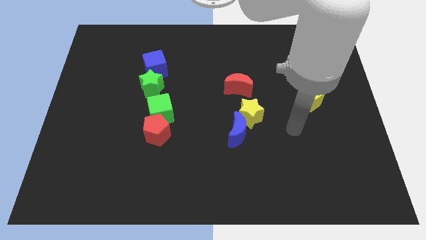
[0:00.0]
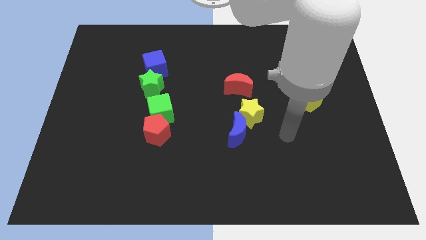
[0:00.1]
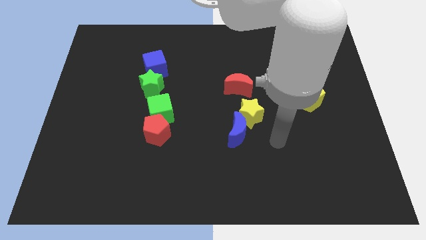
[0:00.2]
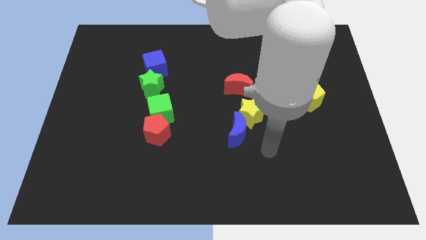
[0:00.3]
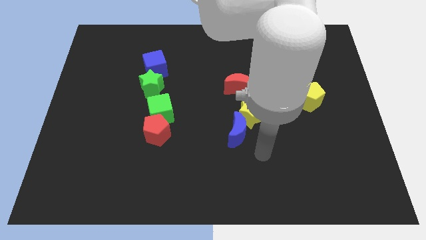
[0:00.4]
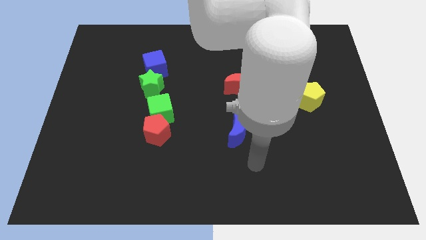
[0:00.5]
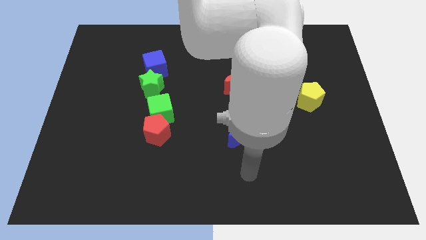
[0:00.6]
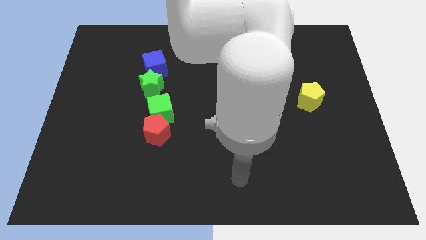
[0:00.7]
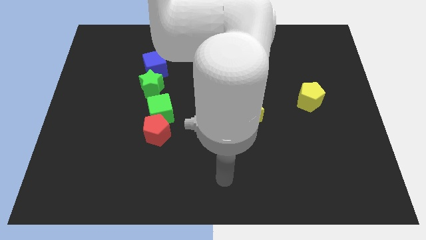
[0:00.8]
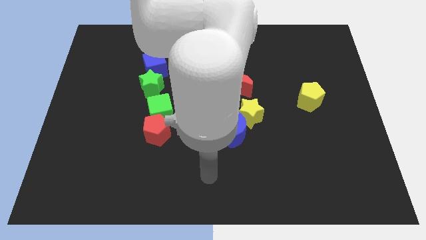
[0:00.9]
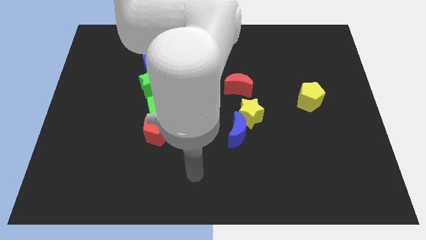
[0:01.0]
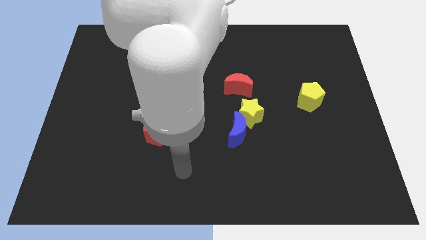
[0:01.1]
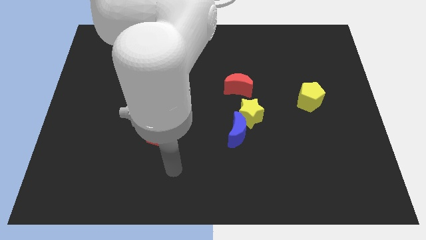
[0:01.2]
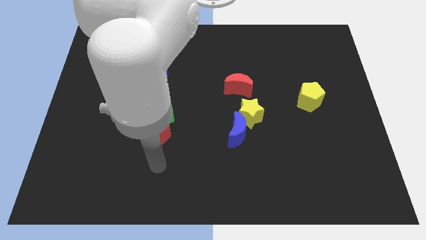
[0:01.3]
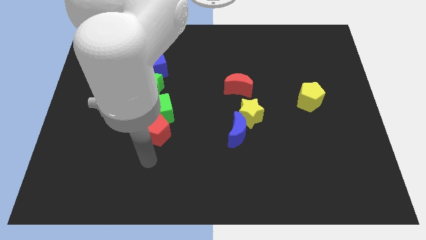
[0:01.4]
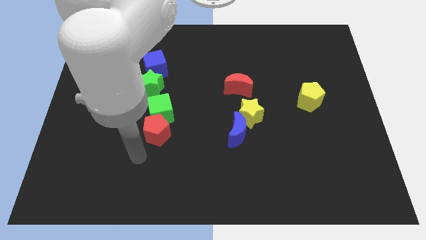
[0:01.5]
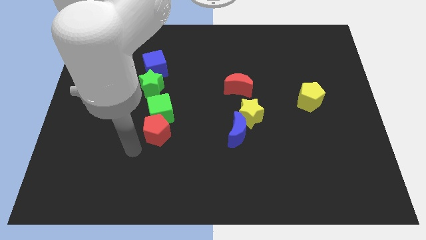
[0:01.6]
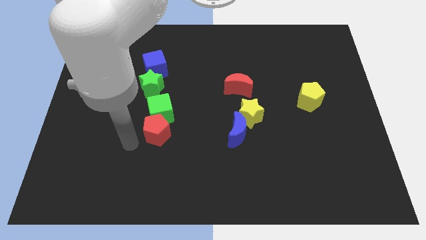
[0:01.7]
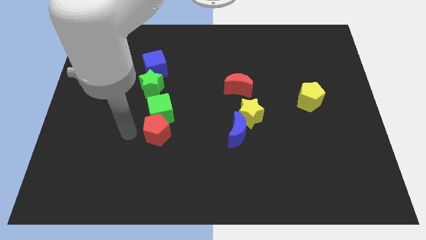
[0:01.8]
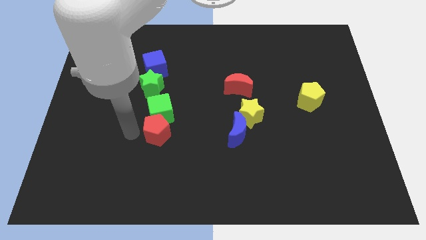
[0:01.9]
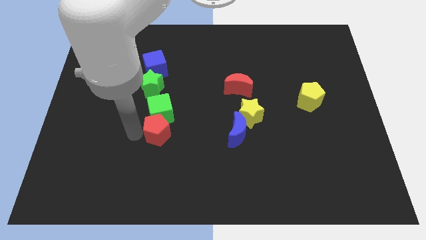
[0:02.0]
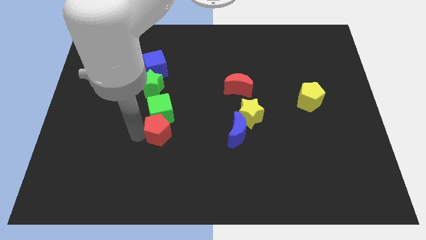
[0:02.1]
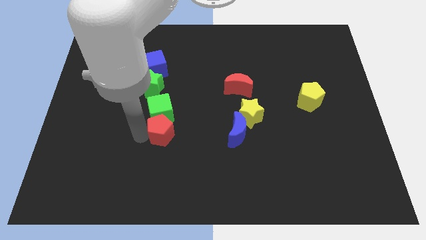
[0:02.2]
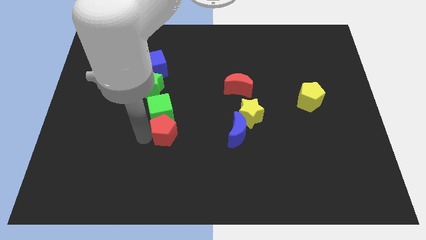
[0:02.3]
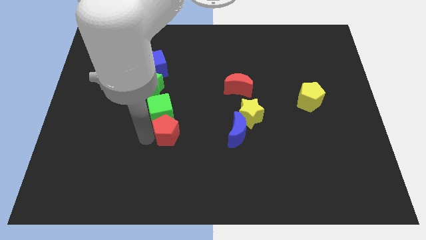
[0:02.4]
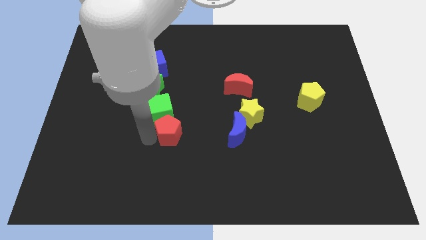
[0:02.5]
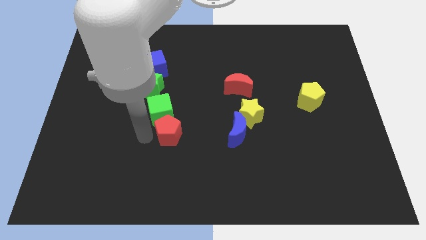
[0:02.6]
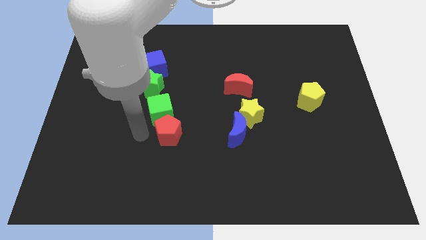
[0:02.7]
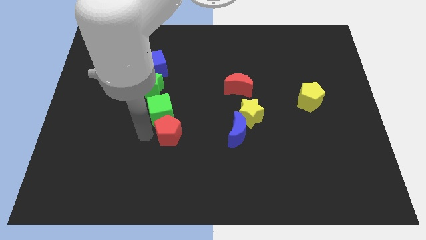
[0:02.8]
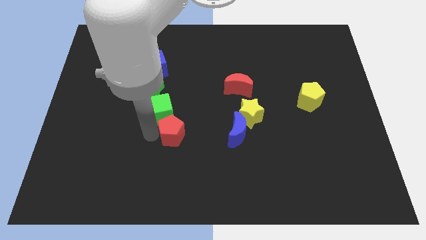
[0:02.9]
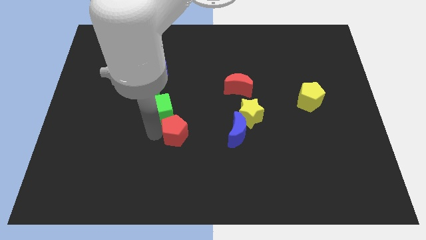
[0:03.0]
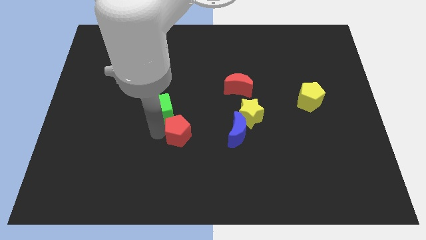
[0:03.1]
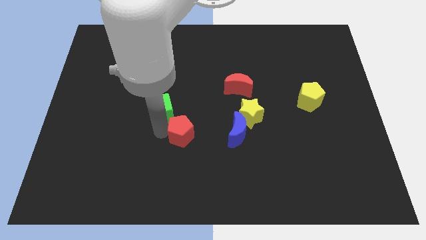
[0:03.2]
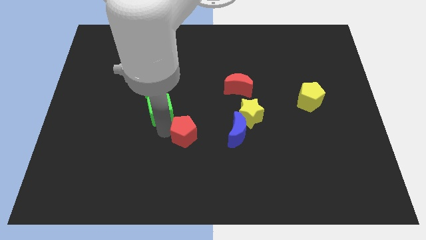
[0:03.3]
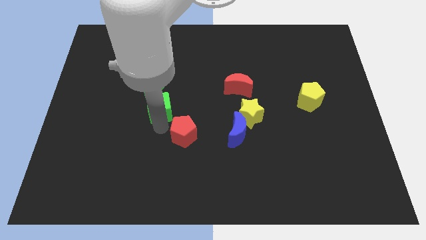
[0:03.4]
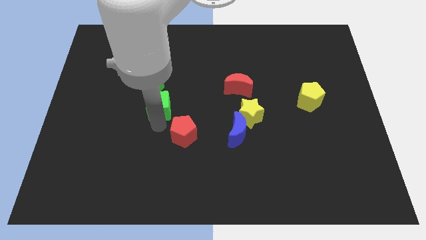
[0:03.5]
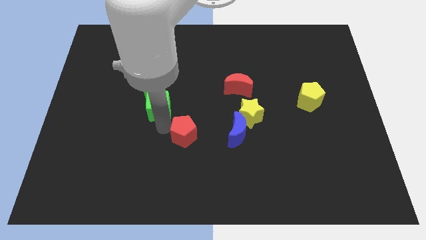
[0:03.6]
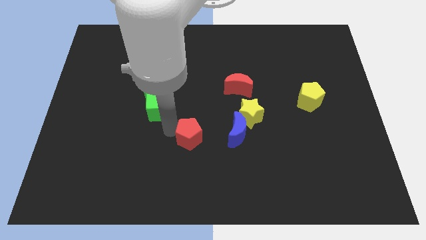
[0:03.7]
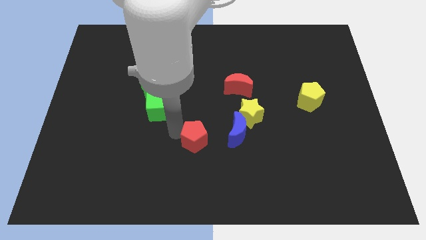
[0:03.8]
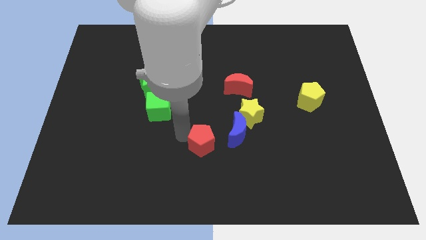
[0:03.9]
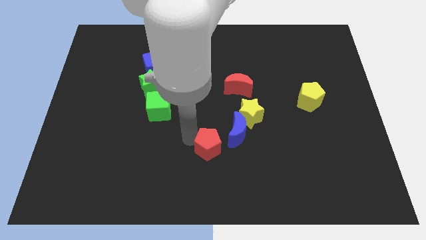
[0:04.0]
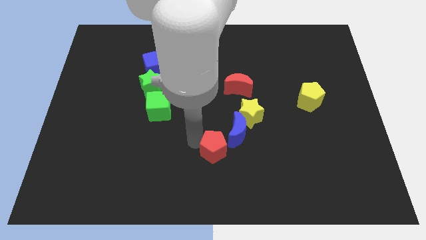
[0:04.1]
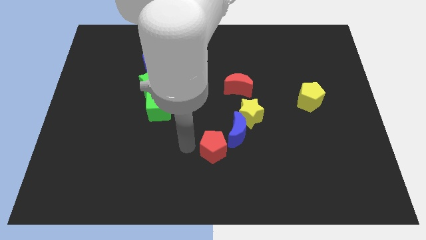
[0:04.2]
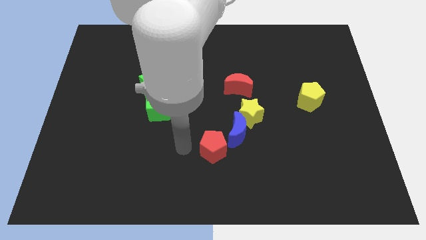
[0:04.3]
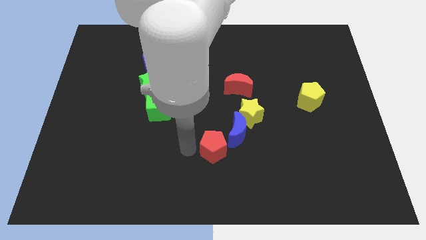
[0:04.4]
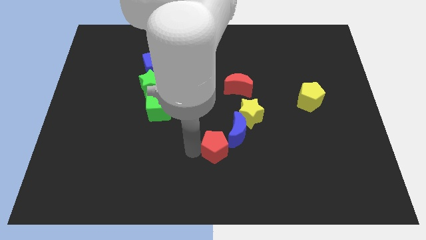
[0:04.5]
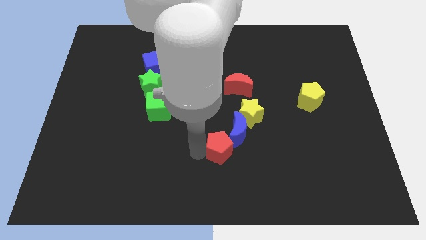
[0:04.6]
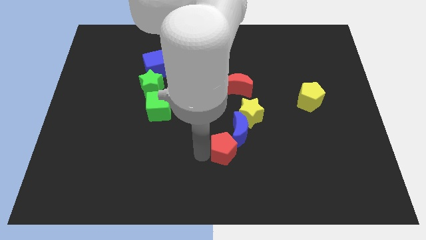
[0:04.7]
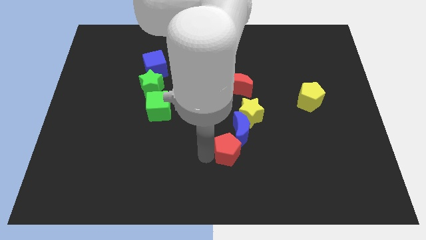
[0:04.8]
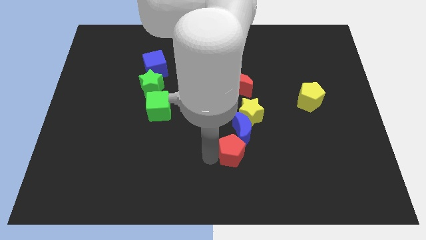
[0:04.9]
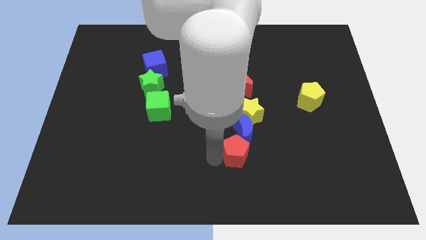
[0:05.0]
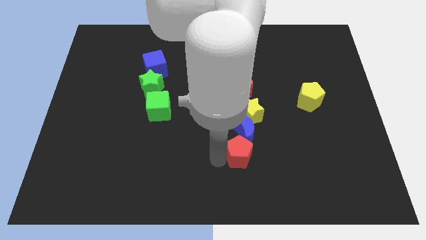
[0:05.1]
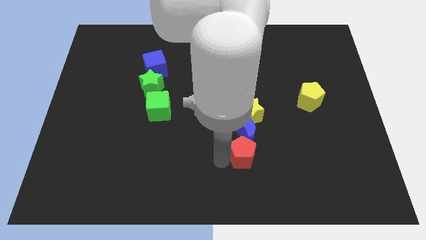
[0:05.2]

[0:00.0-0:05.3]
slide the red pentagon diagonally down and to the right of the blue moon

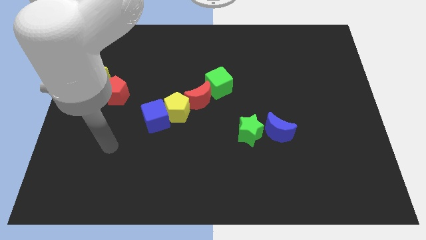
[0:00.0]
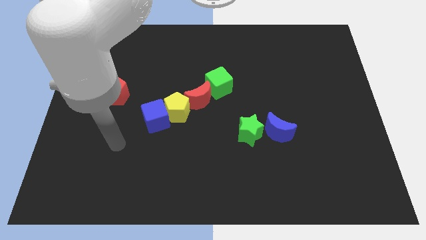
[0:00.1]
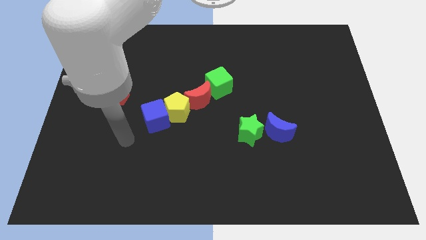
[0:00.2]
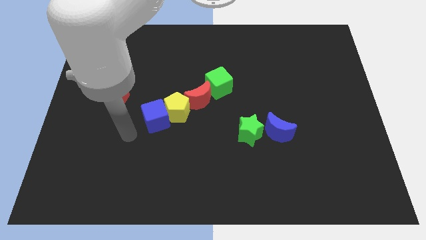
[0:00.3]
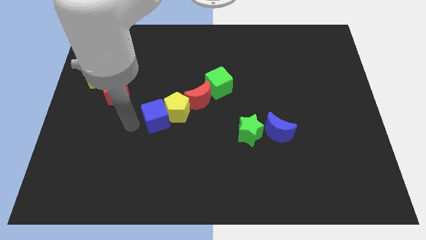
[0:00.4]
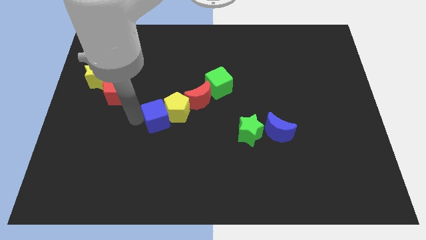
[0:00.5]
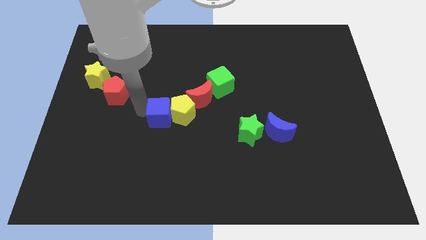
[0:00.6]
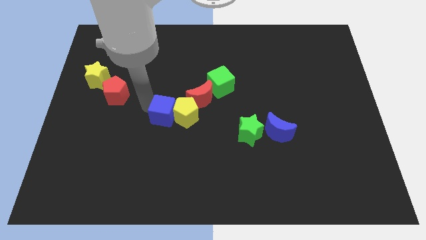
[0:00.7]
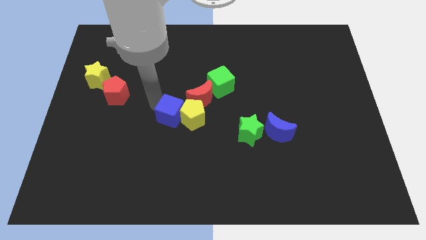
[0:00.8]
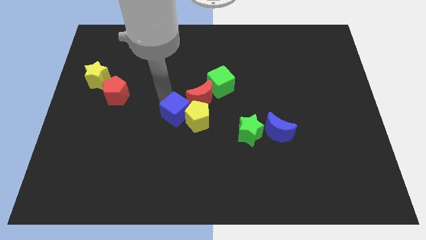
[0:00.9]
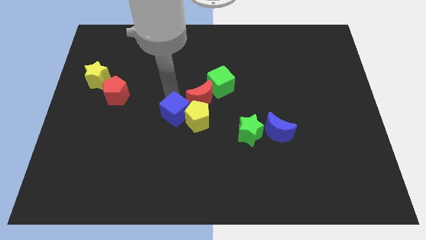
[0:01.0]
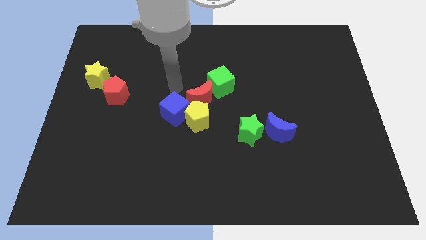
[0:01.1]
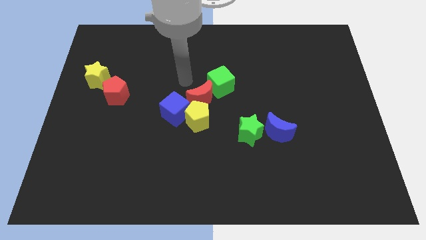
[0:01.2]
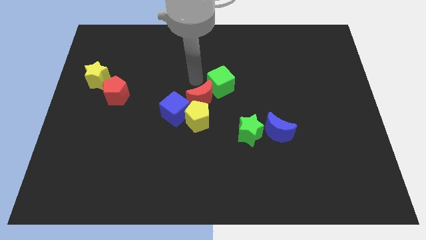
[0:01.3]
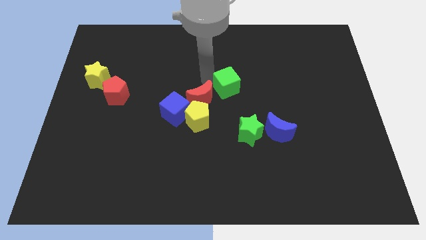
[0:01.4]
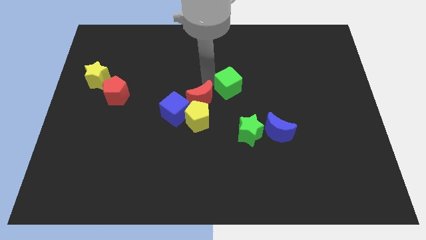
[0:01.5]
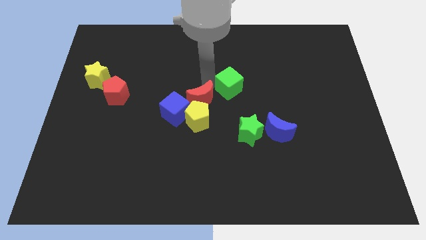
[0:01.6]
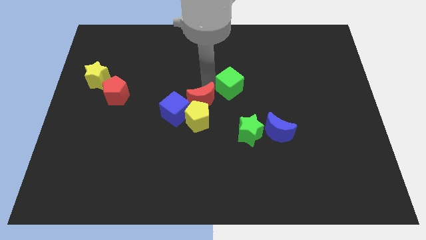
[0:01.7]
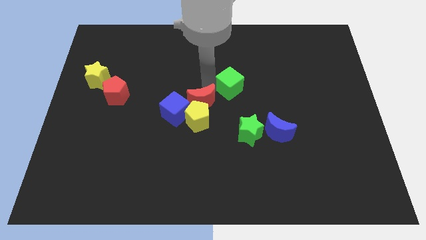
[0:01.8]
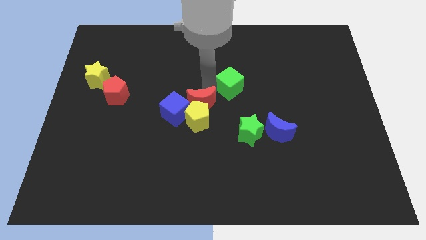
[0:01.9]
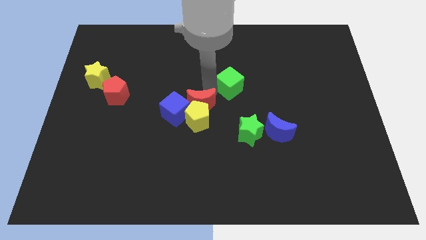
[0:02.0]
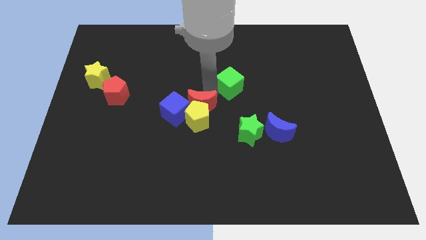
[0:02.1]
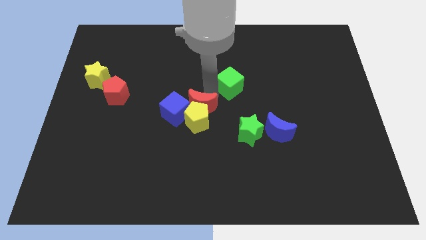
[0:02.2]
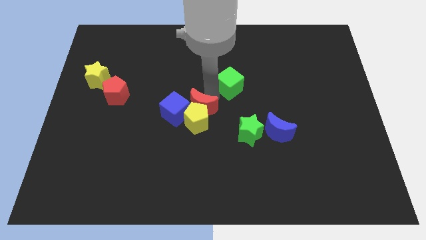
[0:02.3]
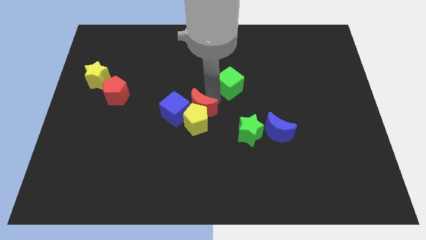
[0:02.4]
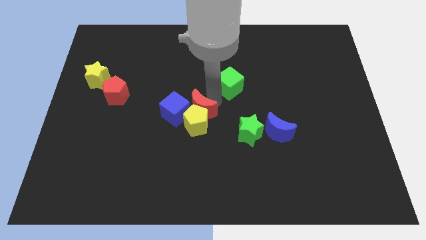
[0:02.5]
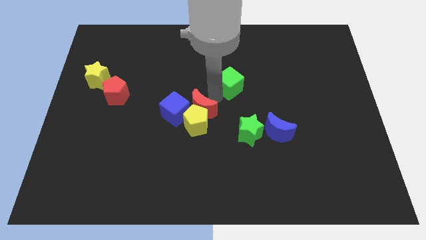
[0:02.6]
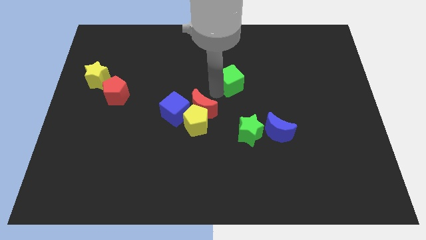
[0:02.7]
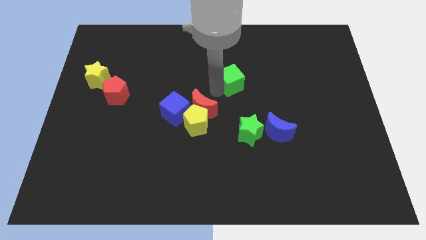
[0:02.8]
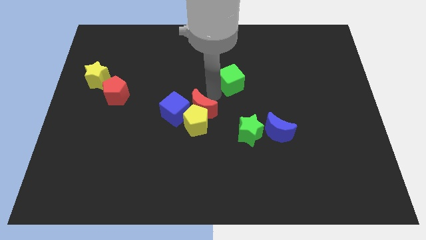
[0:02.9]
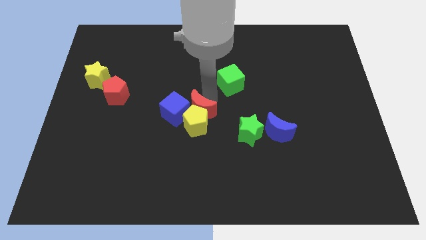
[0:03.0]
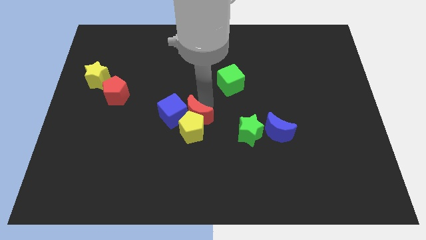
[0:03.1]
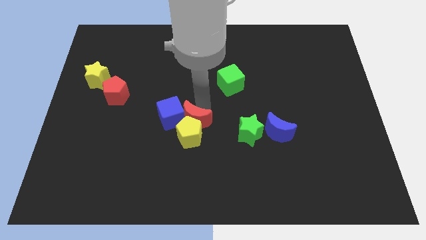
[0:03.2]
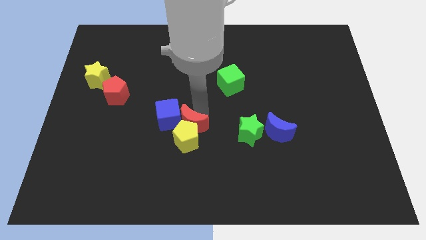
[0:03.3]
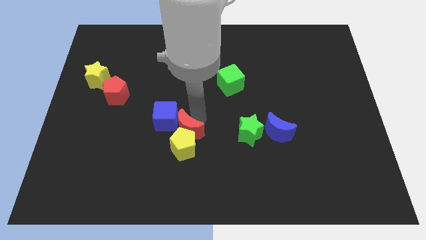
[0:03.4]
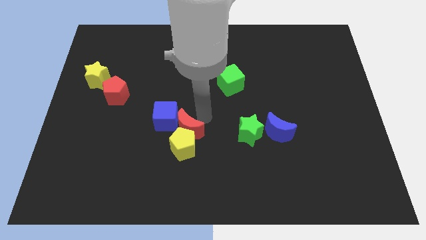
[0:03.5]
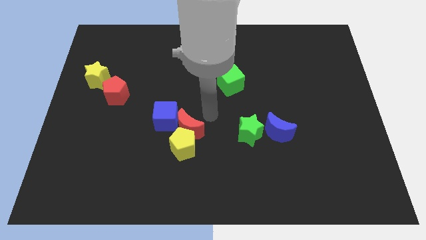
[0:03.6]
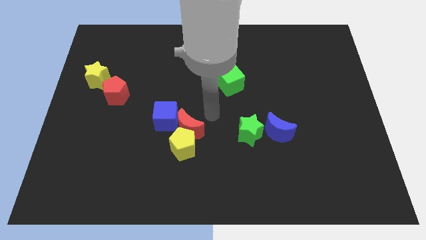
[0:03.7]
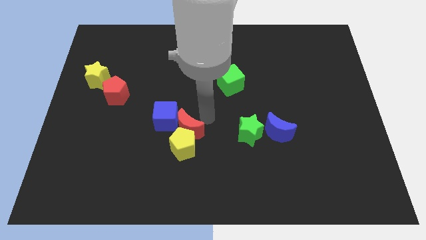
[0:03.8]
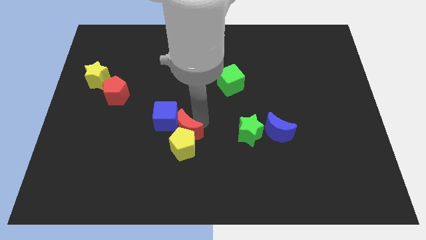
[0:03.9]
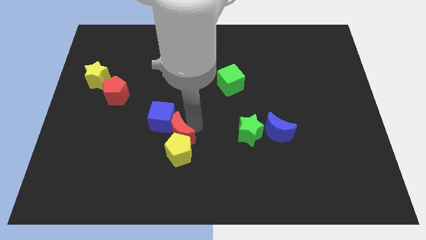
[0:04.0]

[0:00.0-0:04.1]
move the red moon below the blue cube
